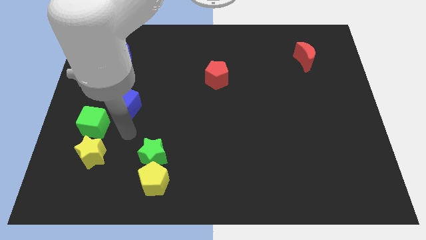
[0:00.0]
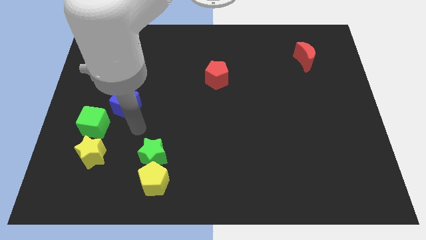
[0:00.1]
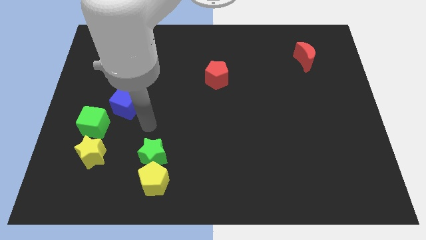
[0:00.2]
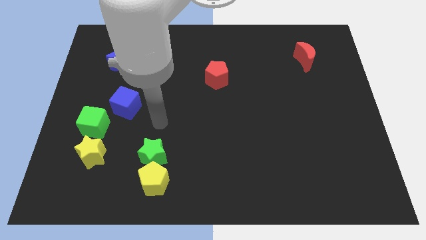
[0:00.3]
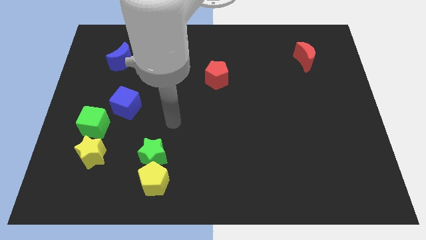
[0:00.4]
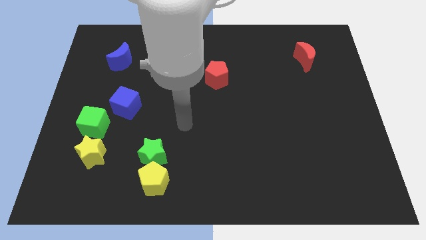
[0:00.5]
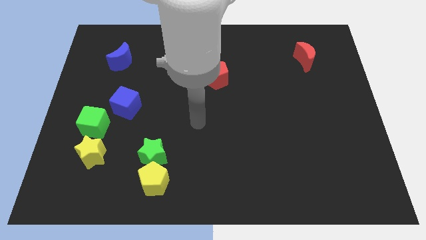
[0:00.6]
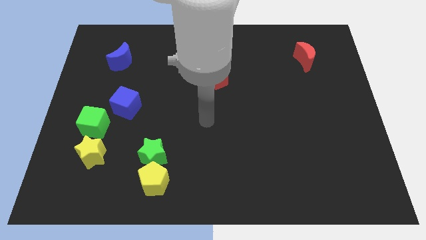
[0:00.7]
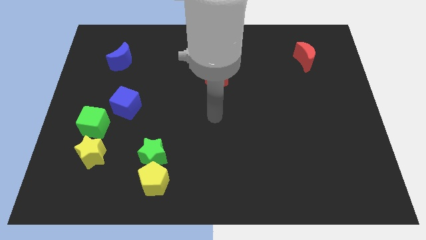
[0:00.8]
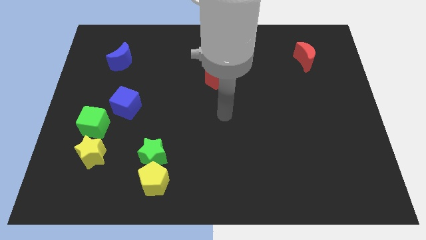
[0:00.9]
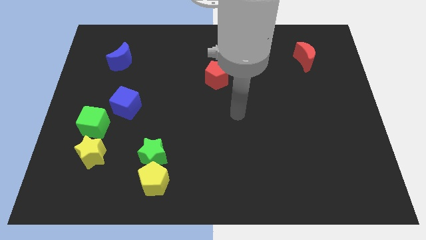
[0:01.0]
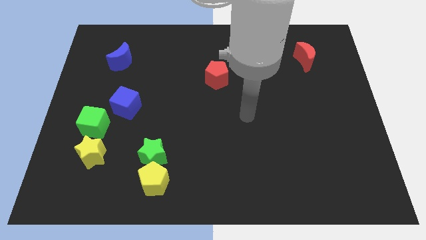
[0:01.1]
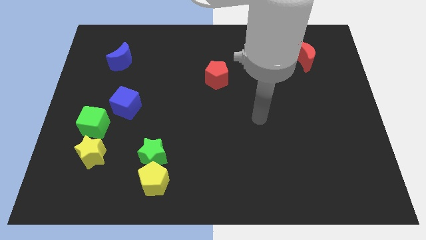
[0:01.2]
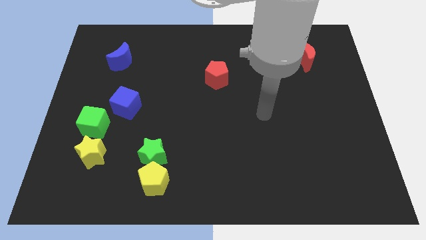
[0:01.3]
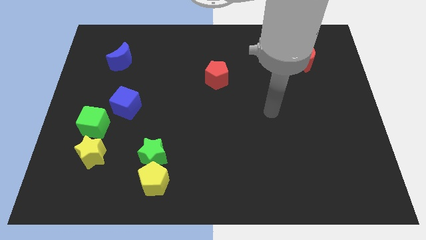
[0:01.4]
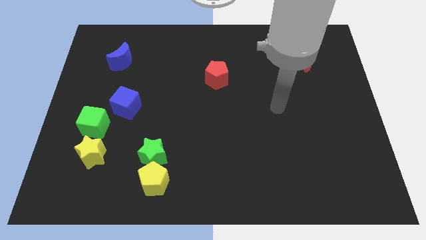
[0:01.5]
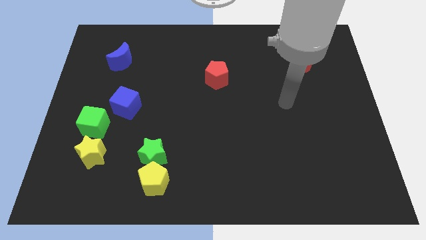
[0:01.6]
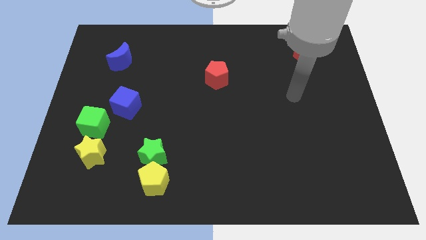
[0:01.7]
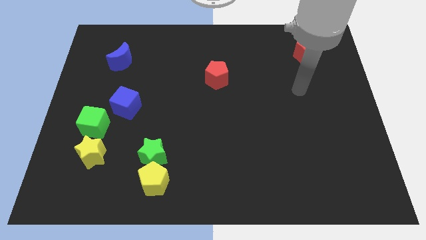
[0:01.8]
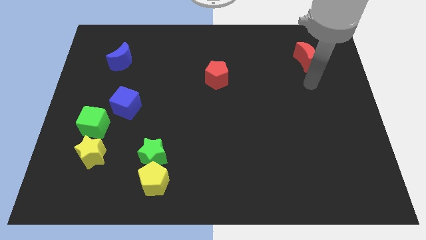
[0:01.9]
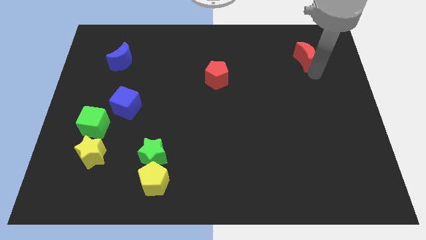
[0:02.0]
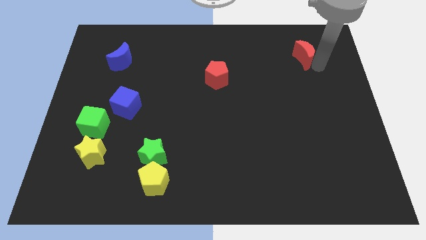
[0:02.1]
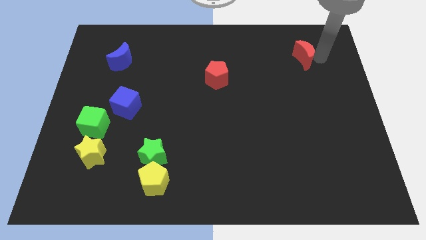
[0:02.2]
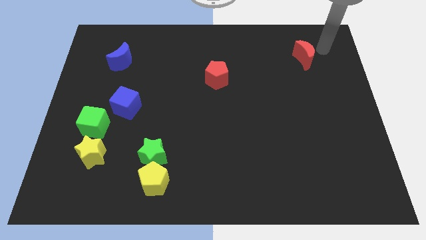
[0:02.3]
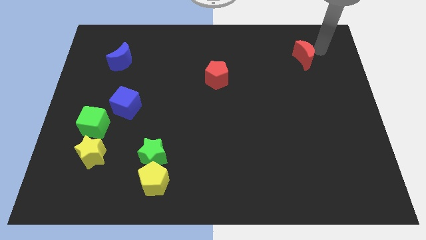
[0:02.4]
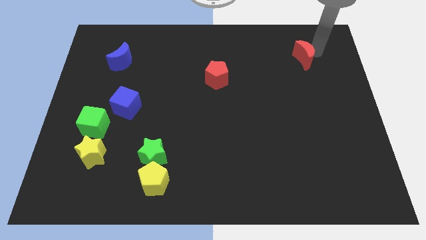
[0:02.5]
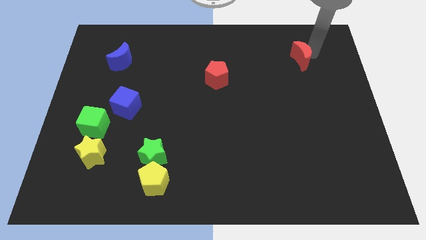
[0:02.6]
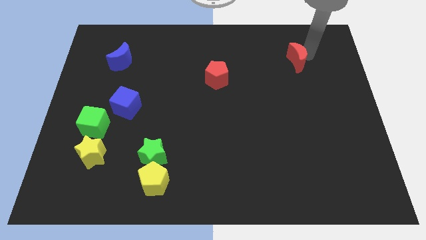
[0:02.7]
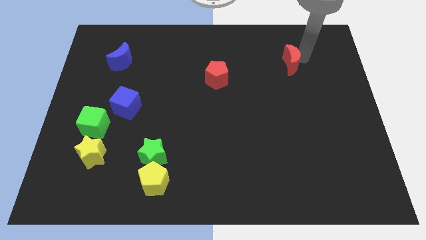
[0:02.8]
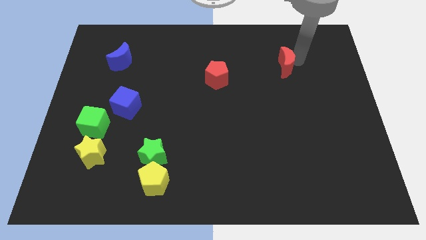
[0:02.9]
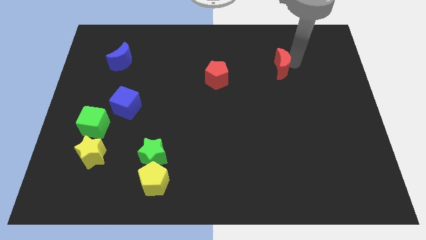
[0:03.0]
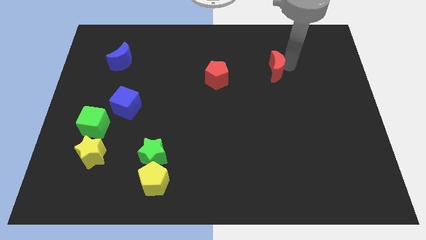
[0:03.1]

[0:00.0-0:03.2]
slide the red moon to the left somewhat

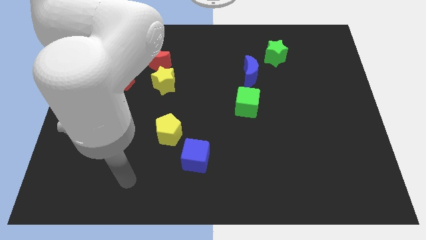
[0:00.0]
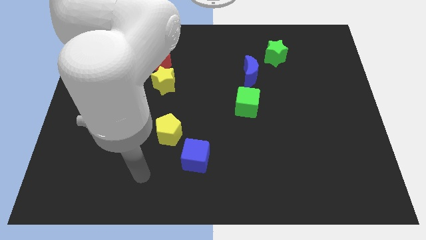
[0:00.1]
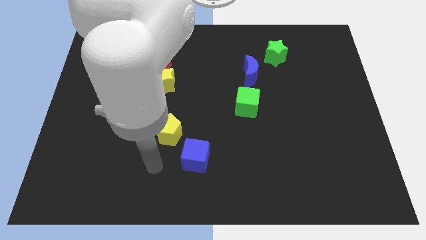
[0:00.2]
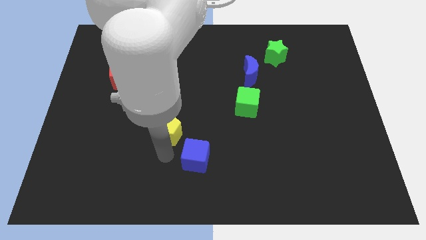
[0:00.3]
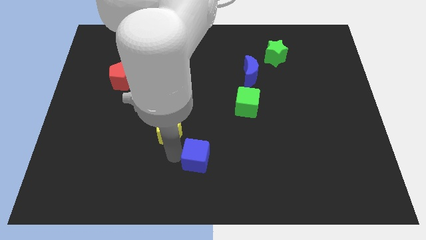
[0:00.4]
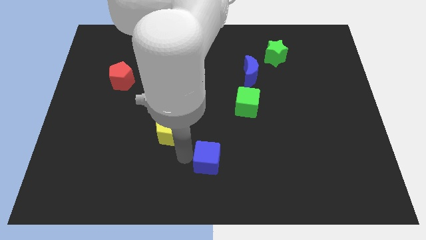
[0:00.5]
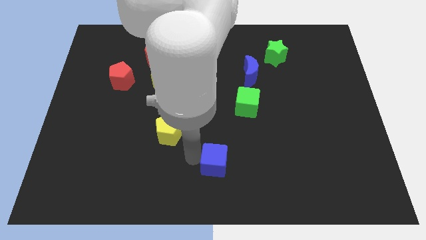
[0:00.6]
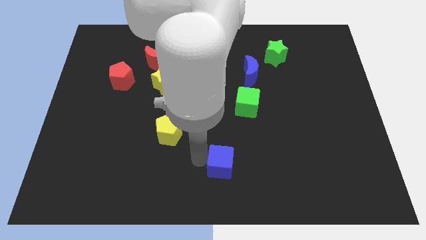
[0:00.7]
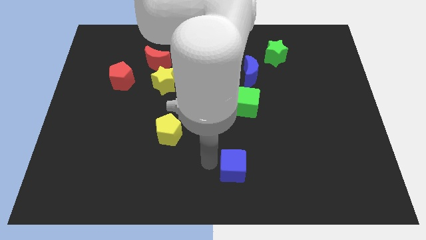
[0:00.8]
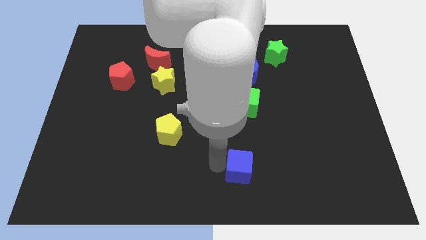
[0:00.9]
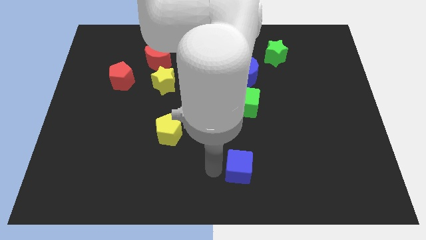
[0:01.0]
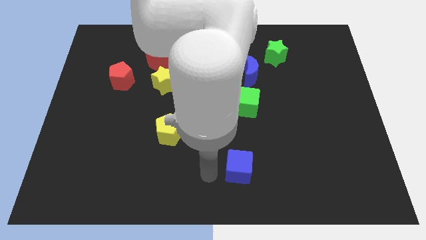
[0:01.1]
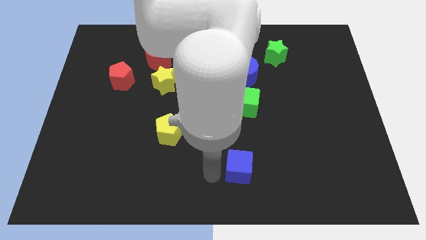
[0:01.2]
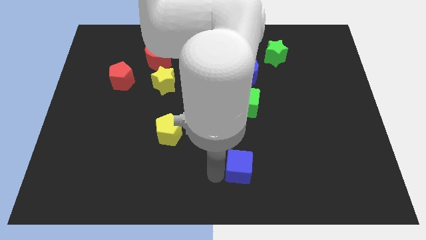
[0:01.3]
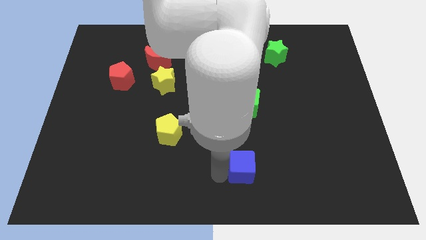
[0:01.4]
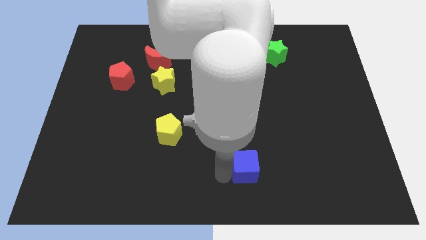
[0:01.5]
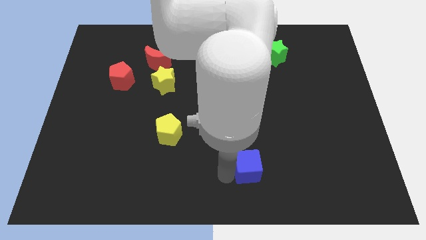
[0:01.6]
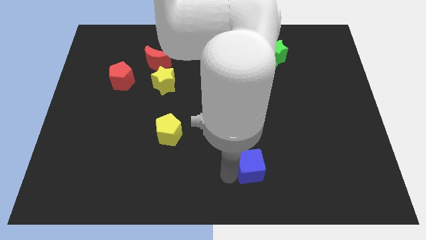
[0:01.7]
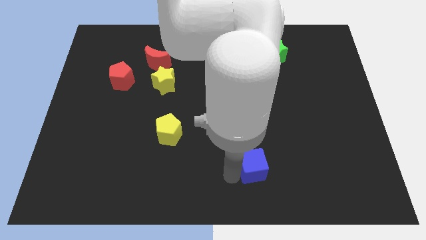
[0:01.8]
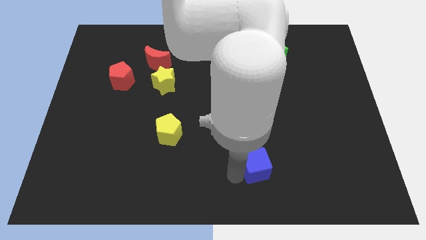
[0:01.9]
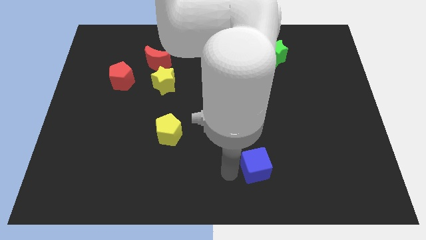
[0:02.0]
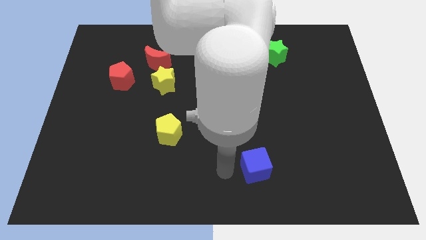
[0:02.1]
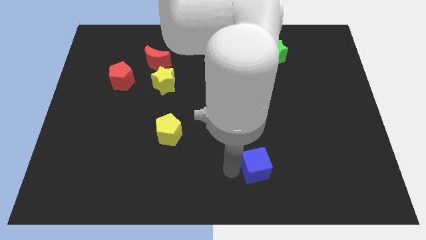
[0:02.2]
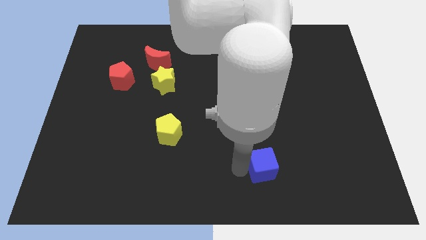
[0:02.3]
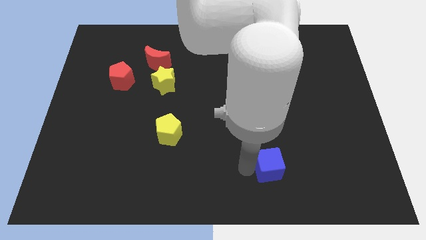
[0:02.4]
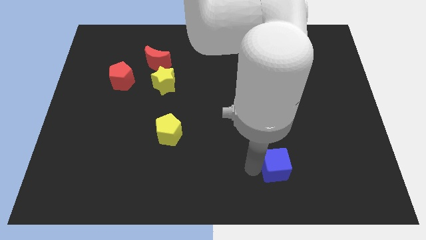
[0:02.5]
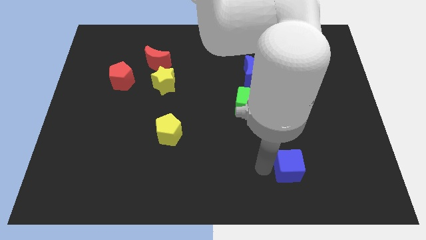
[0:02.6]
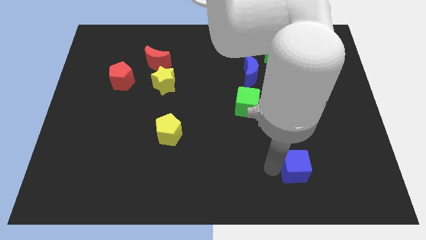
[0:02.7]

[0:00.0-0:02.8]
slide the blue cube right

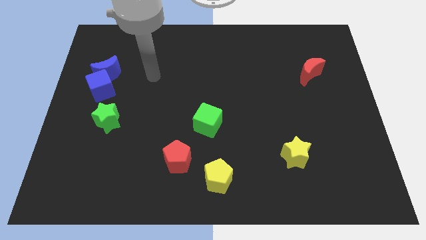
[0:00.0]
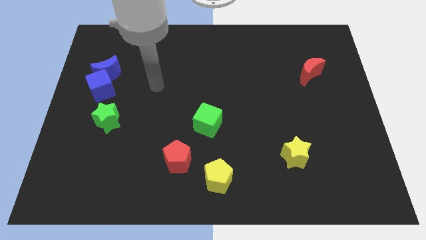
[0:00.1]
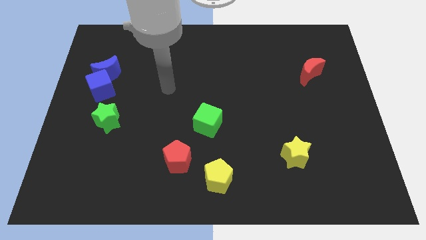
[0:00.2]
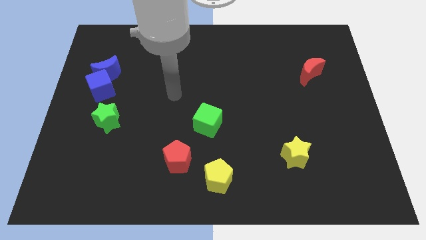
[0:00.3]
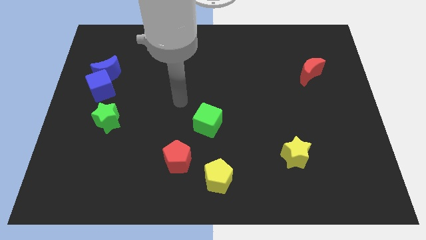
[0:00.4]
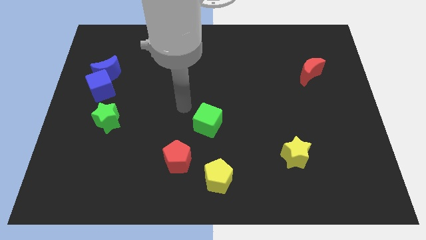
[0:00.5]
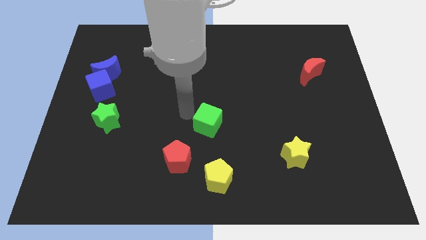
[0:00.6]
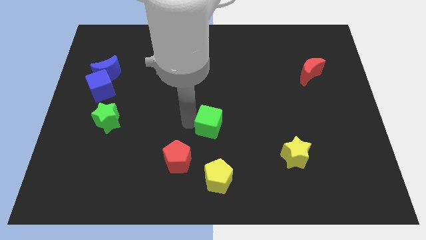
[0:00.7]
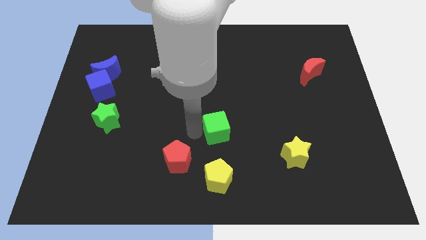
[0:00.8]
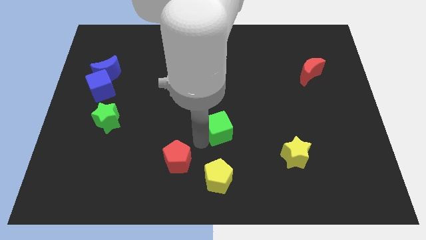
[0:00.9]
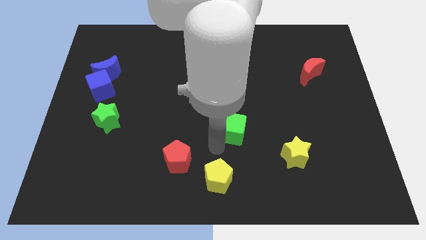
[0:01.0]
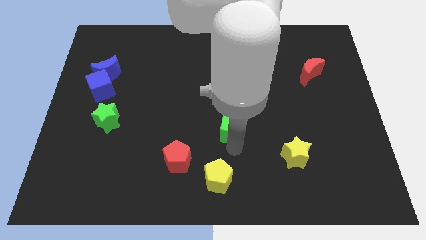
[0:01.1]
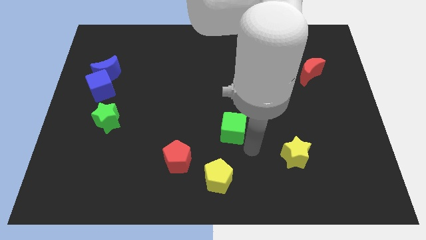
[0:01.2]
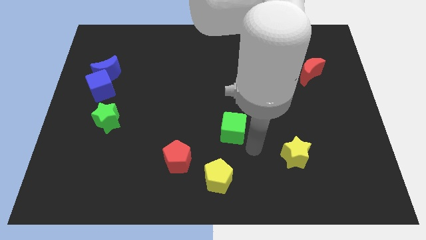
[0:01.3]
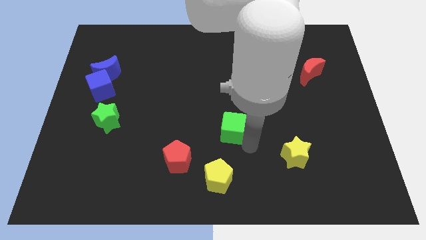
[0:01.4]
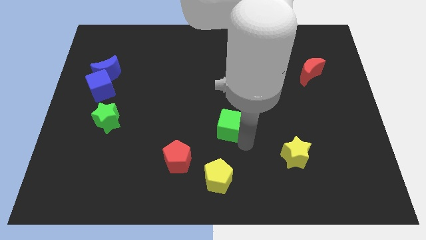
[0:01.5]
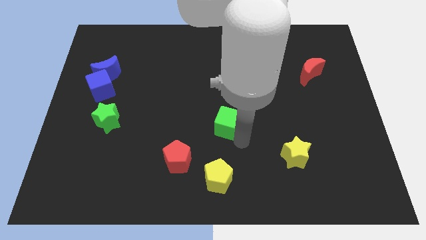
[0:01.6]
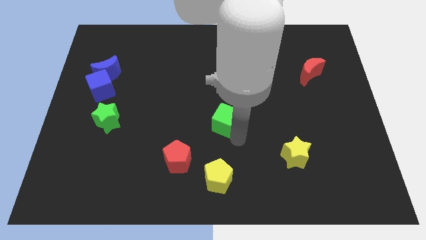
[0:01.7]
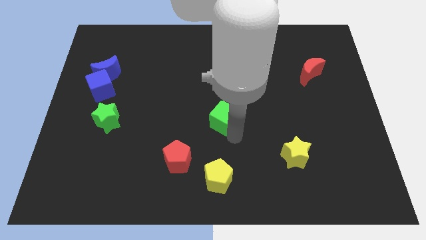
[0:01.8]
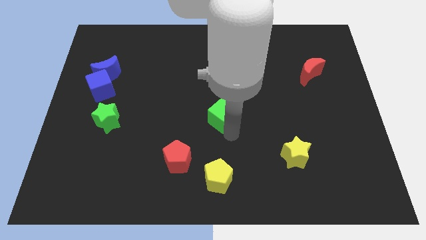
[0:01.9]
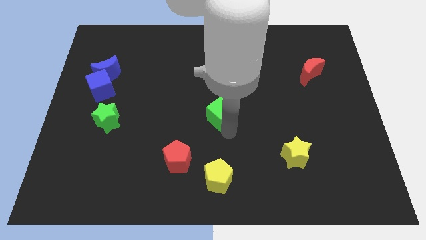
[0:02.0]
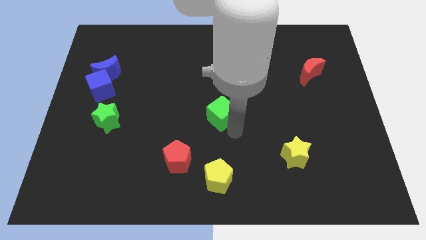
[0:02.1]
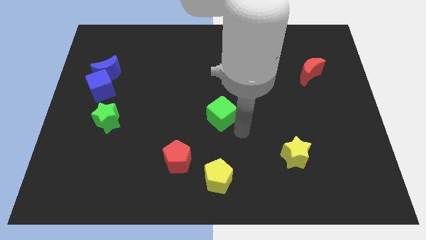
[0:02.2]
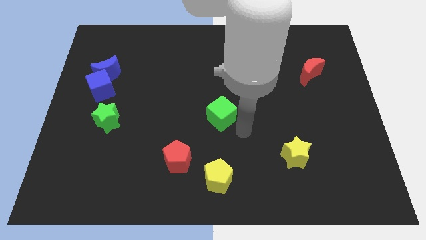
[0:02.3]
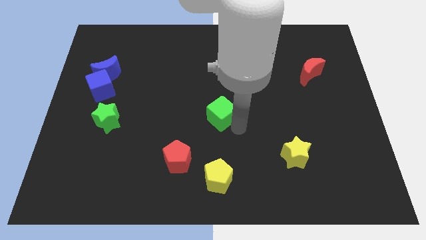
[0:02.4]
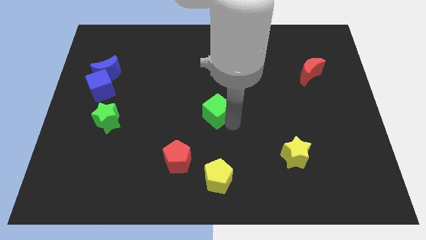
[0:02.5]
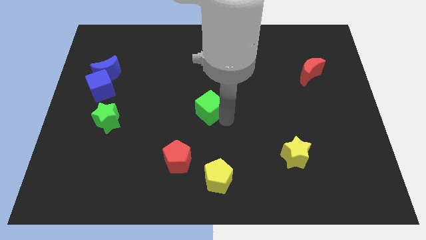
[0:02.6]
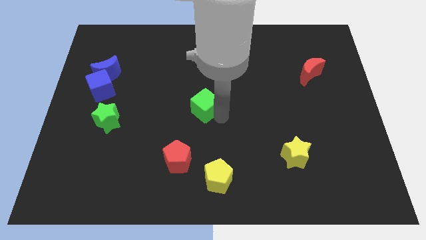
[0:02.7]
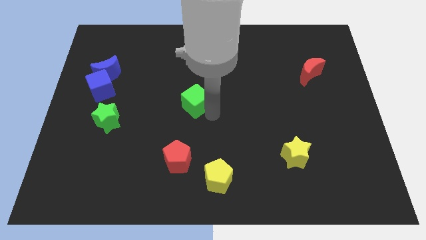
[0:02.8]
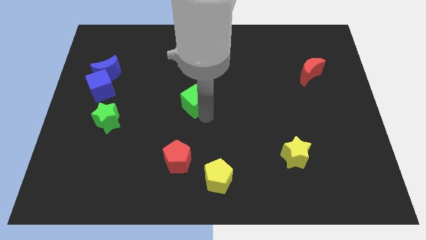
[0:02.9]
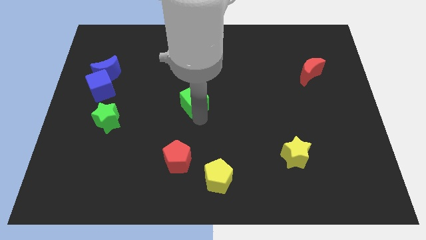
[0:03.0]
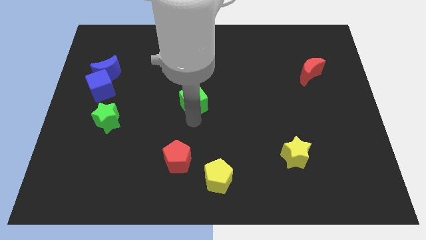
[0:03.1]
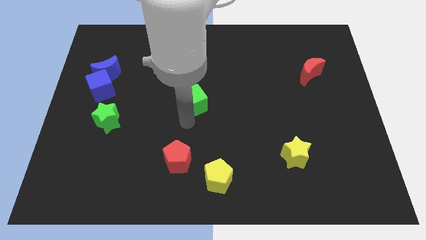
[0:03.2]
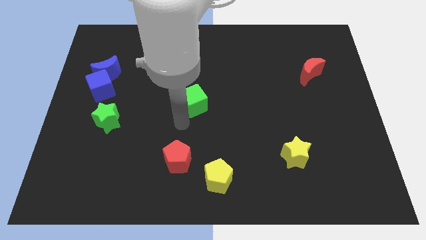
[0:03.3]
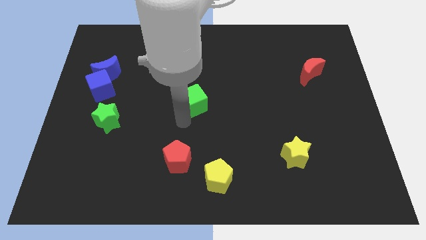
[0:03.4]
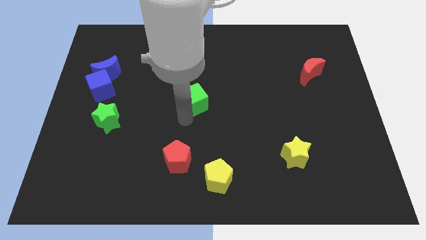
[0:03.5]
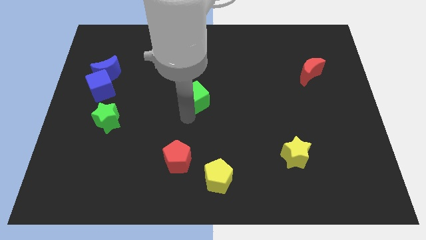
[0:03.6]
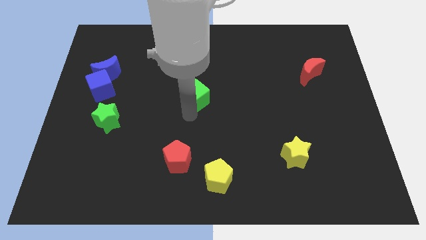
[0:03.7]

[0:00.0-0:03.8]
slightly push the green cube upwards
